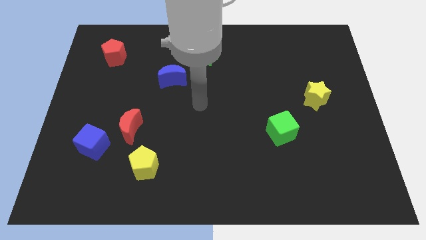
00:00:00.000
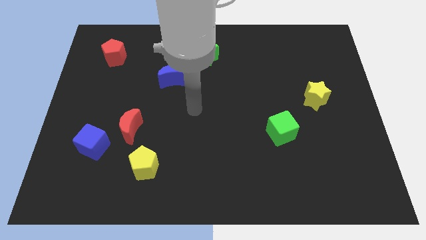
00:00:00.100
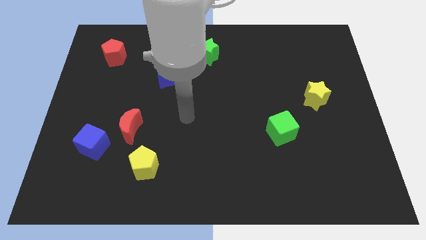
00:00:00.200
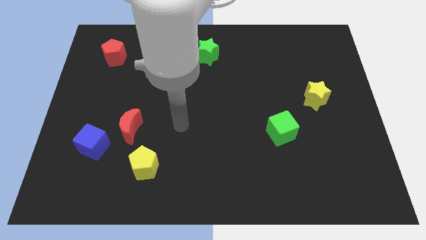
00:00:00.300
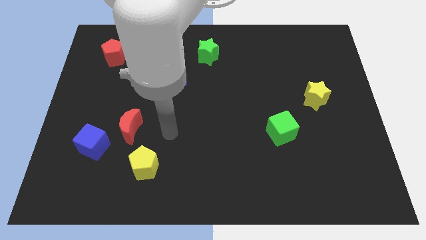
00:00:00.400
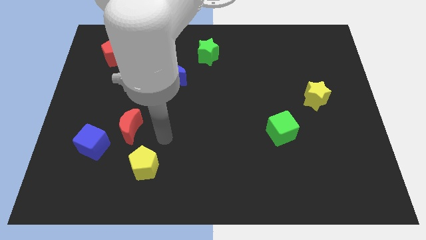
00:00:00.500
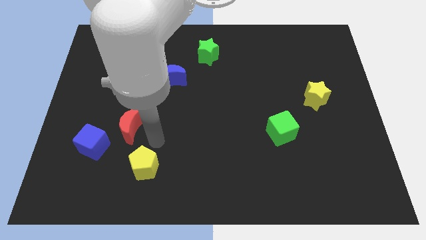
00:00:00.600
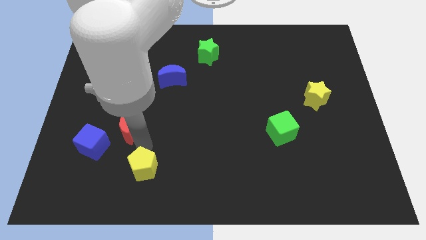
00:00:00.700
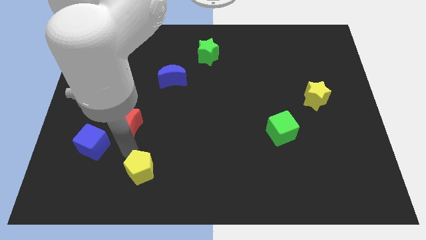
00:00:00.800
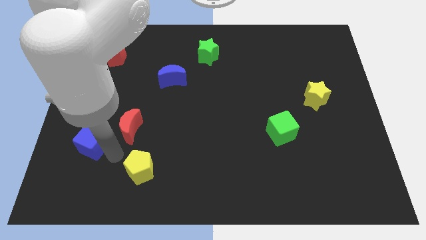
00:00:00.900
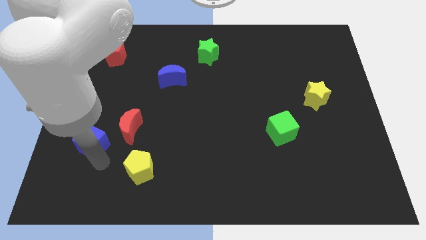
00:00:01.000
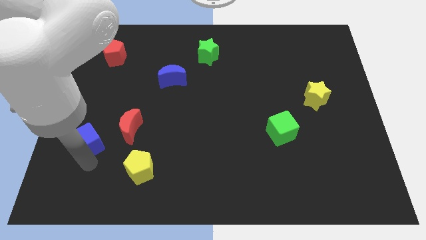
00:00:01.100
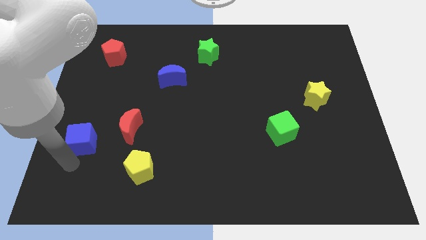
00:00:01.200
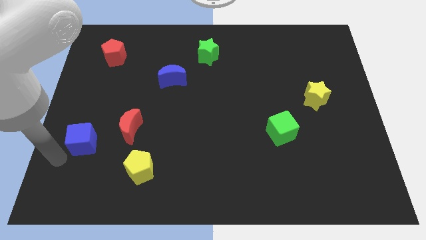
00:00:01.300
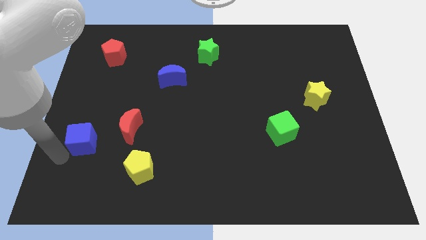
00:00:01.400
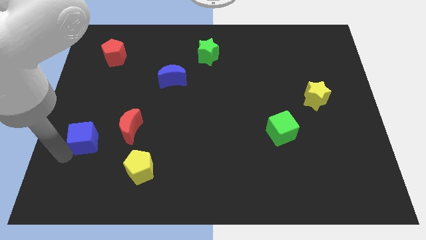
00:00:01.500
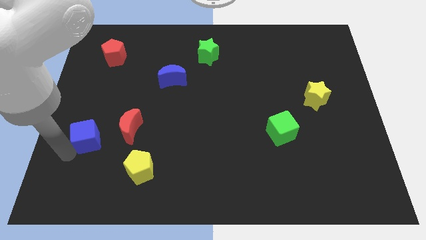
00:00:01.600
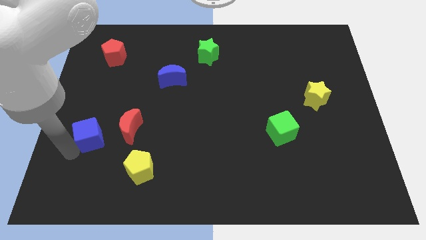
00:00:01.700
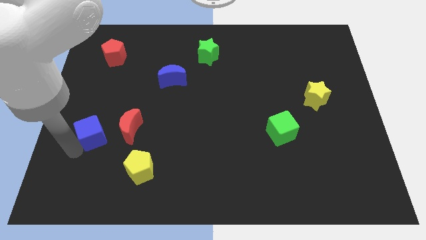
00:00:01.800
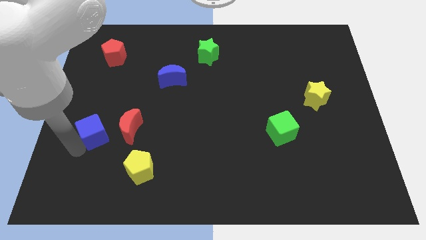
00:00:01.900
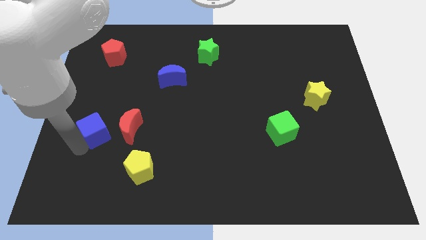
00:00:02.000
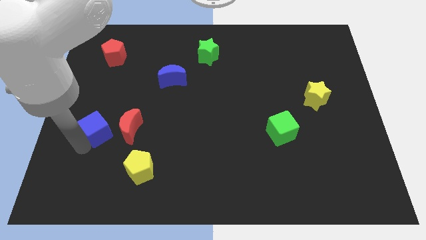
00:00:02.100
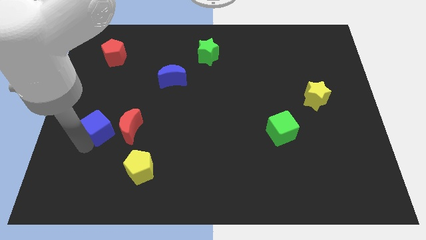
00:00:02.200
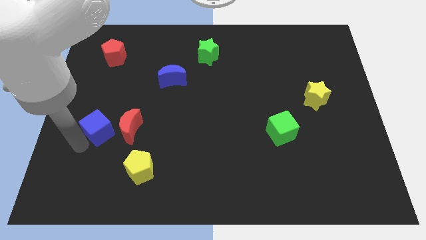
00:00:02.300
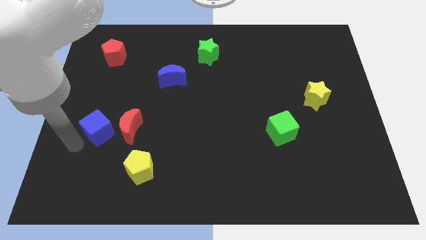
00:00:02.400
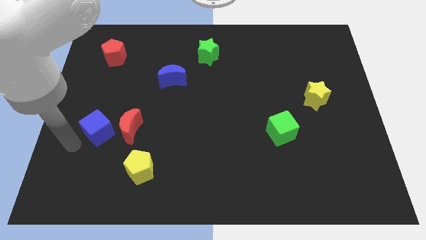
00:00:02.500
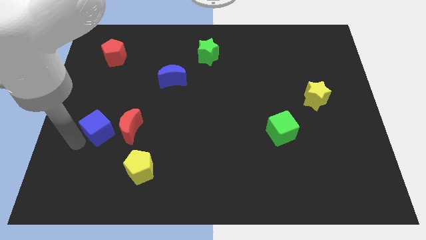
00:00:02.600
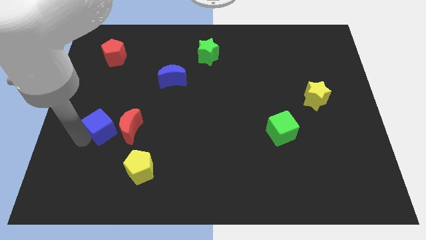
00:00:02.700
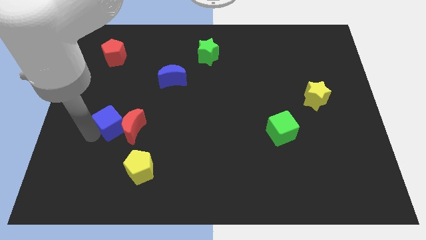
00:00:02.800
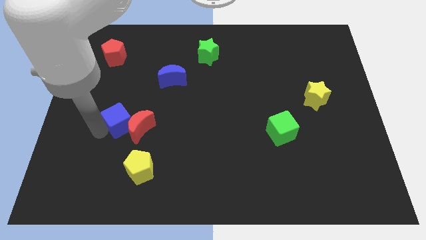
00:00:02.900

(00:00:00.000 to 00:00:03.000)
slightly move the blue cube diagonally upwards and to the right

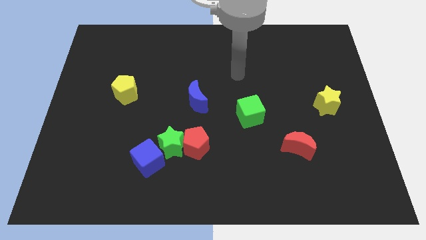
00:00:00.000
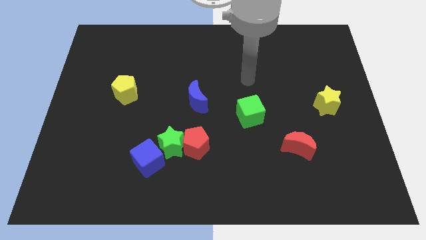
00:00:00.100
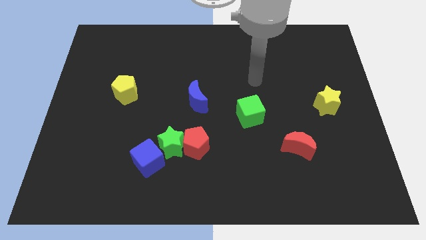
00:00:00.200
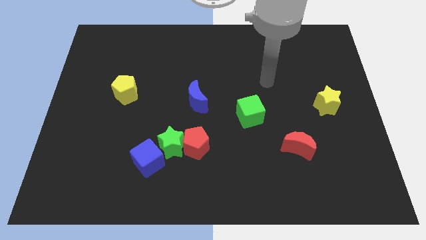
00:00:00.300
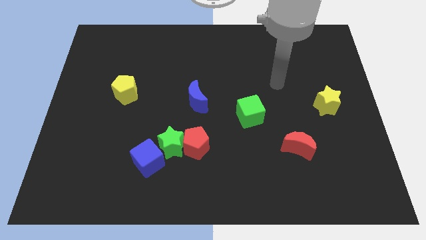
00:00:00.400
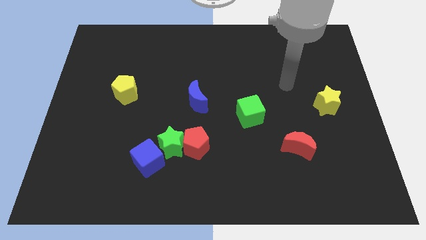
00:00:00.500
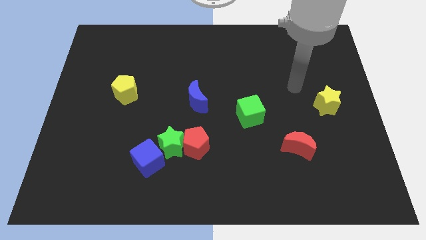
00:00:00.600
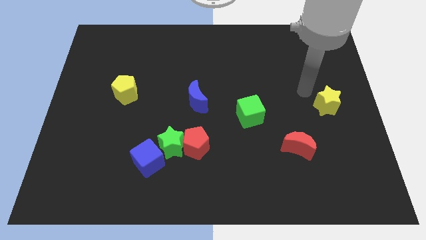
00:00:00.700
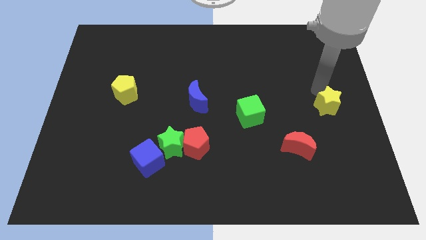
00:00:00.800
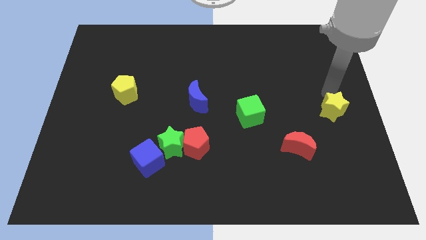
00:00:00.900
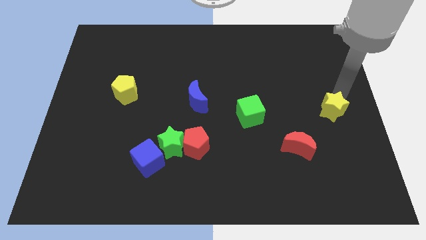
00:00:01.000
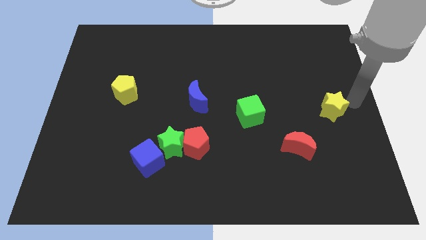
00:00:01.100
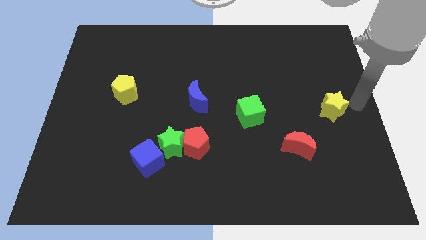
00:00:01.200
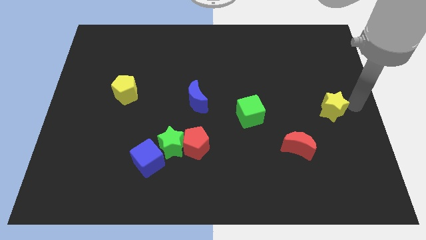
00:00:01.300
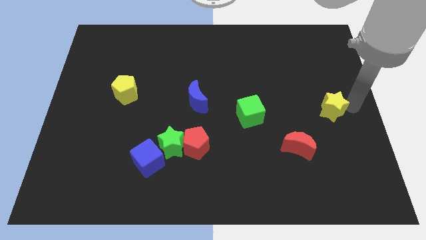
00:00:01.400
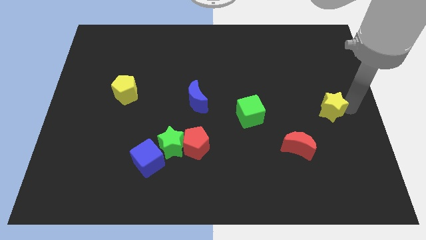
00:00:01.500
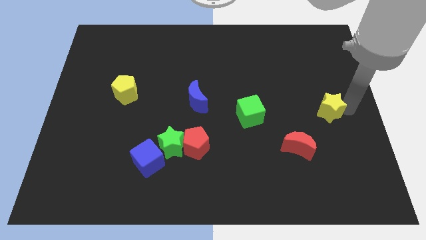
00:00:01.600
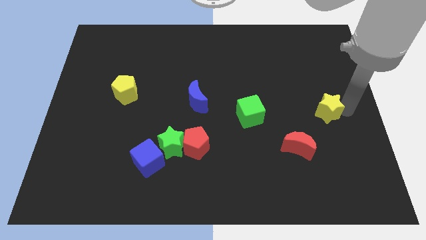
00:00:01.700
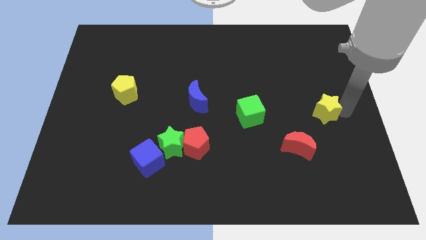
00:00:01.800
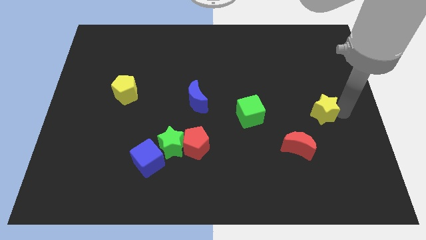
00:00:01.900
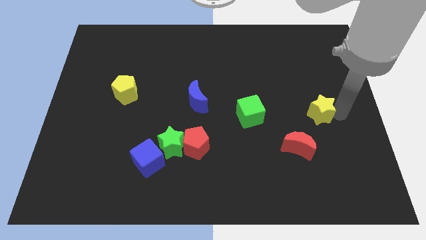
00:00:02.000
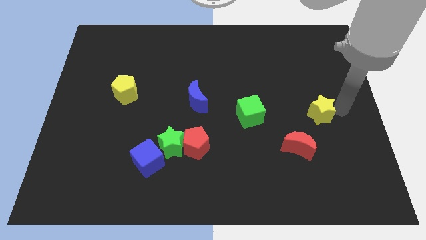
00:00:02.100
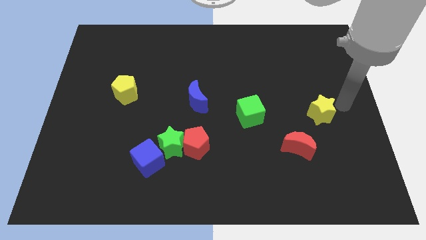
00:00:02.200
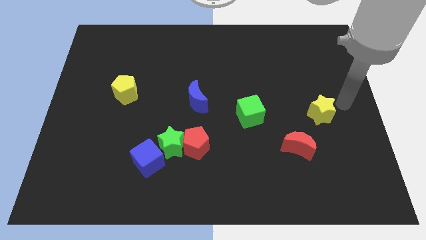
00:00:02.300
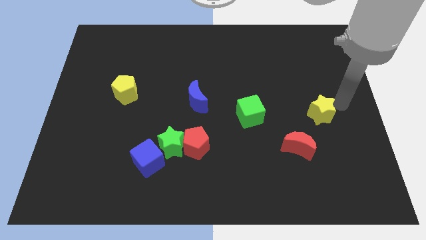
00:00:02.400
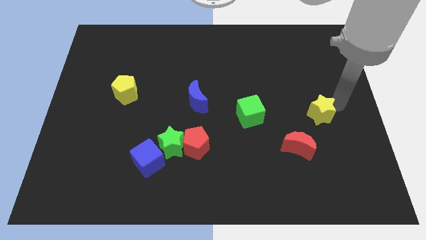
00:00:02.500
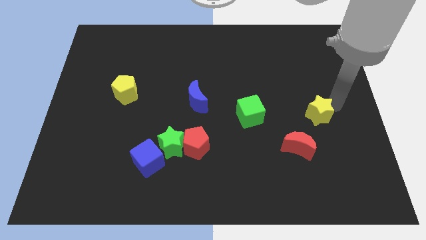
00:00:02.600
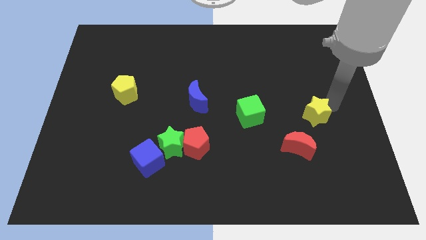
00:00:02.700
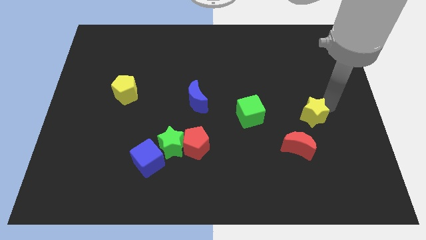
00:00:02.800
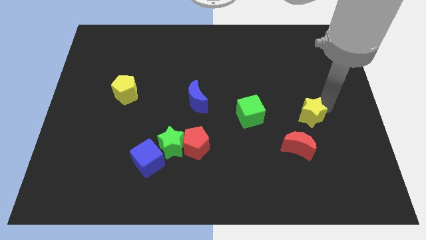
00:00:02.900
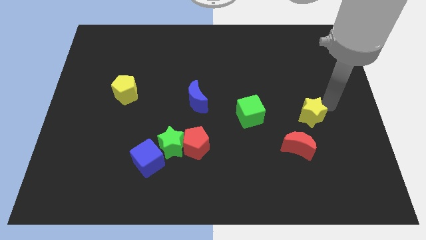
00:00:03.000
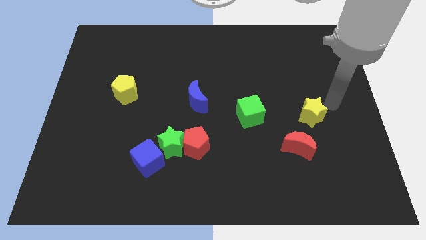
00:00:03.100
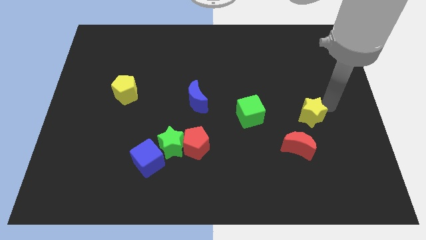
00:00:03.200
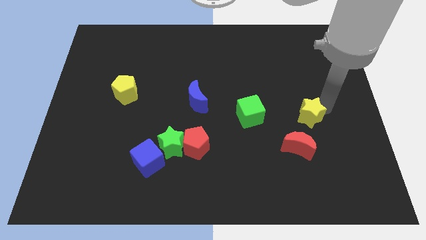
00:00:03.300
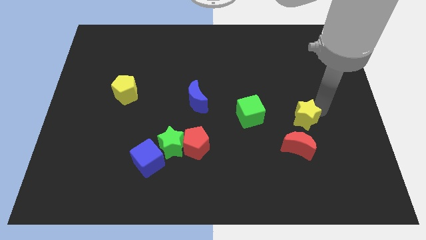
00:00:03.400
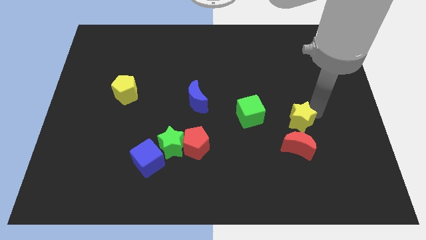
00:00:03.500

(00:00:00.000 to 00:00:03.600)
move the yellow star diagonally down and left somewhat

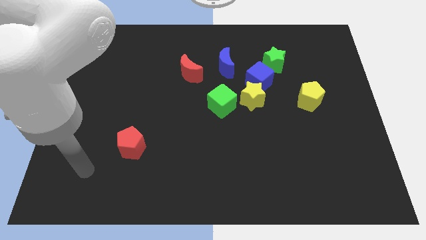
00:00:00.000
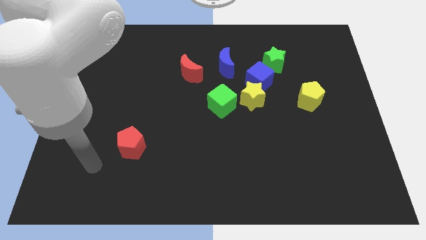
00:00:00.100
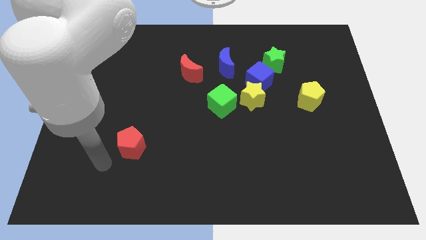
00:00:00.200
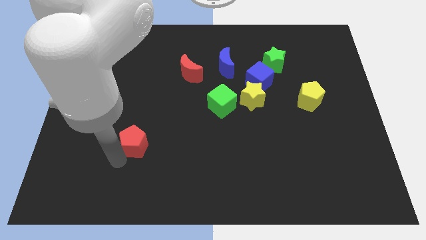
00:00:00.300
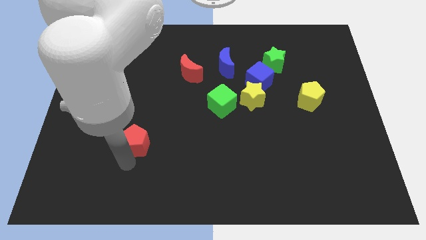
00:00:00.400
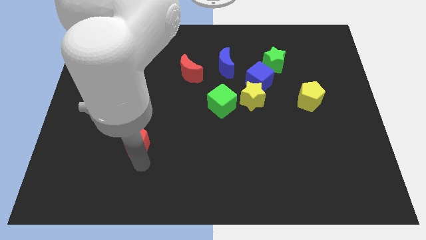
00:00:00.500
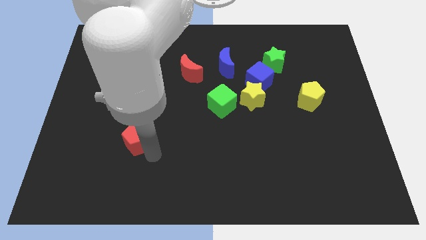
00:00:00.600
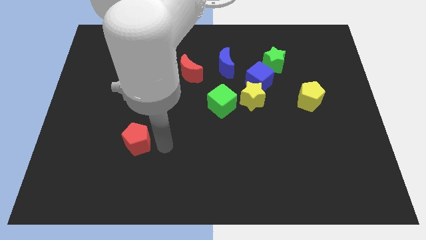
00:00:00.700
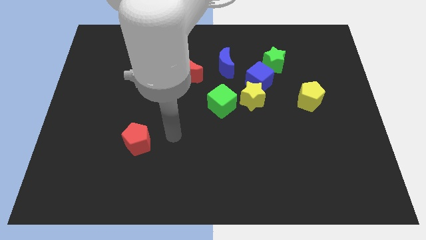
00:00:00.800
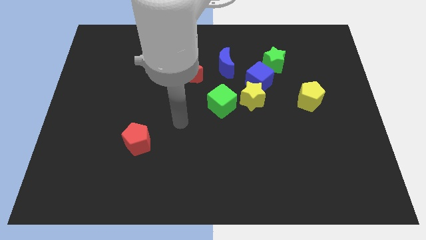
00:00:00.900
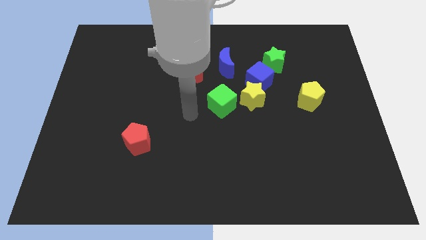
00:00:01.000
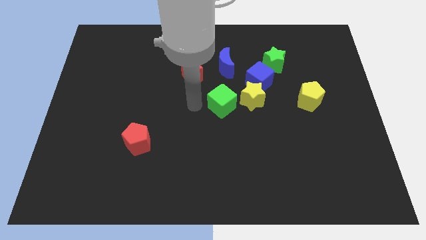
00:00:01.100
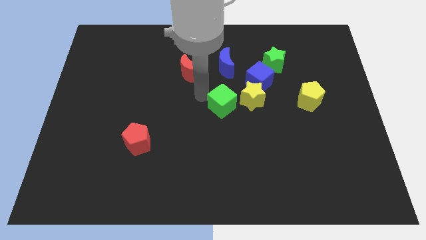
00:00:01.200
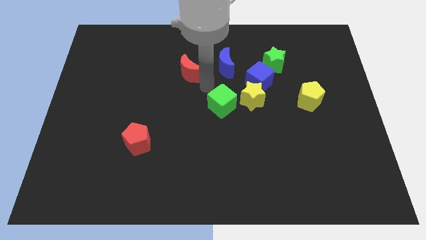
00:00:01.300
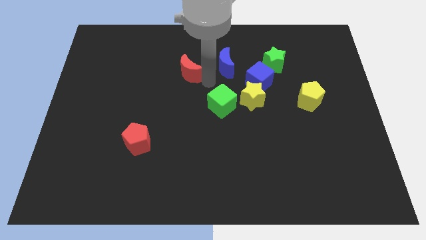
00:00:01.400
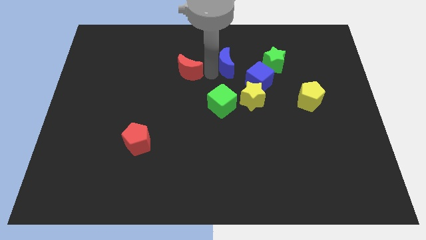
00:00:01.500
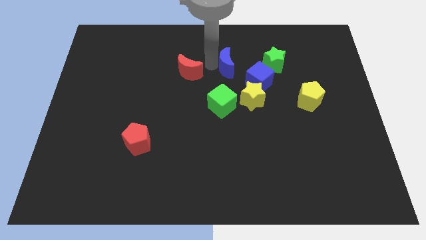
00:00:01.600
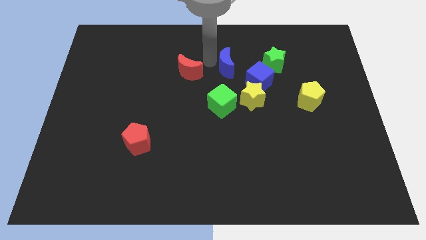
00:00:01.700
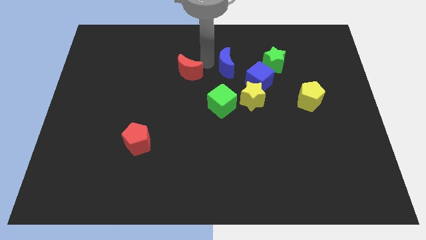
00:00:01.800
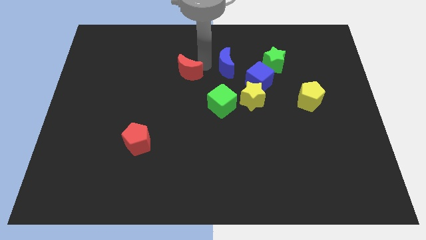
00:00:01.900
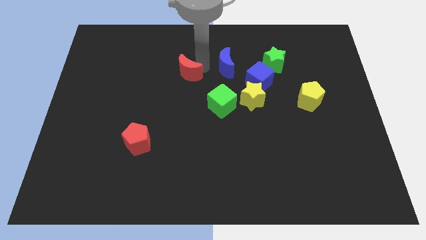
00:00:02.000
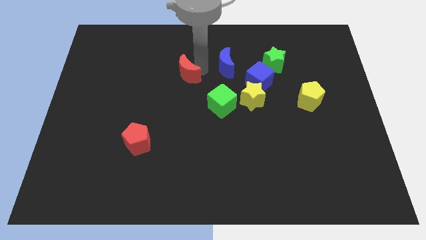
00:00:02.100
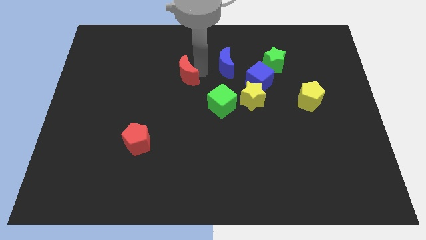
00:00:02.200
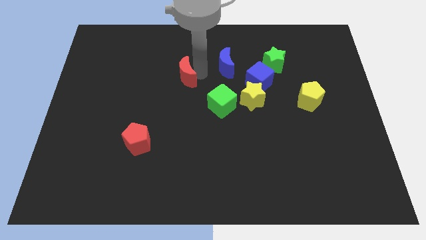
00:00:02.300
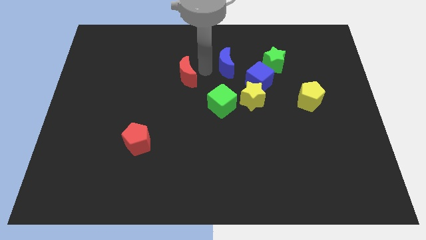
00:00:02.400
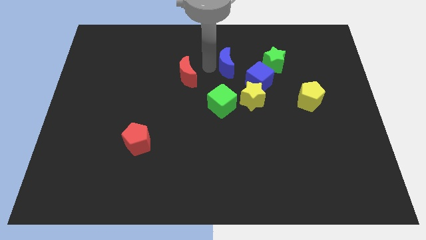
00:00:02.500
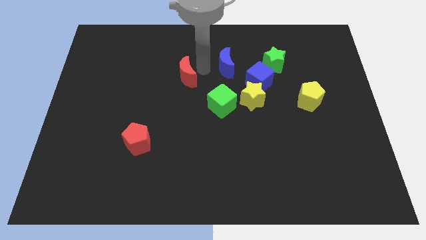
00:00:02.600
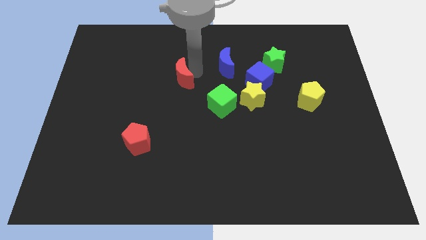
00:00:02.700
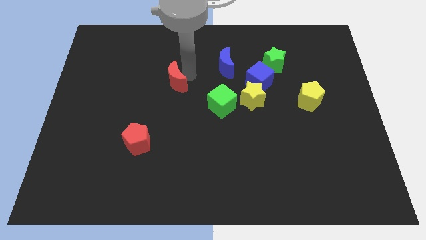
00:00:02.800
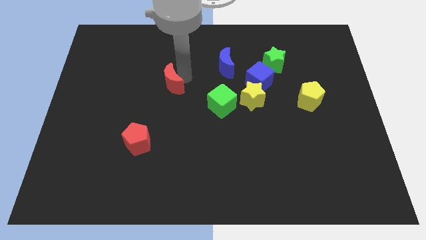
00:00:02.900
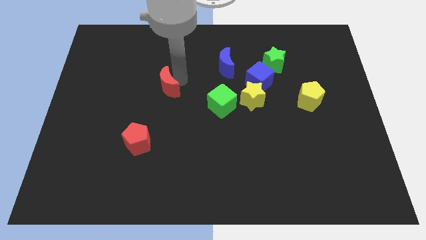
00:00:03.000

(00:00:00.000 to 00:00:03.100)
move the red moon down and then left slightly
